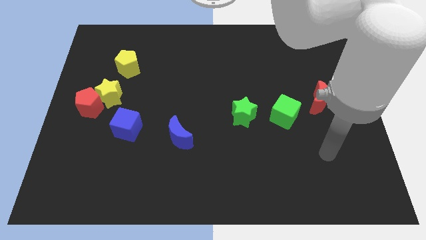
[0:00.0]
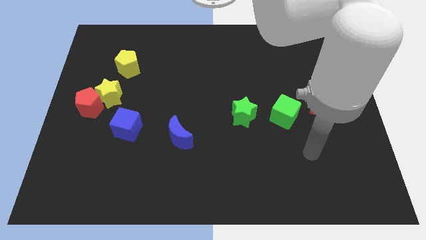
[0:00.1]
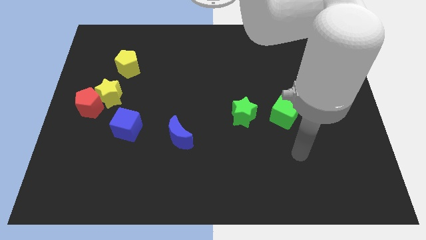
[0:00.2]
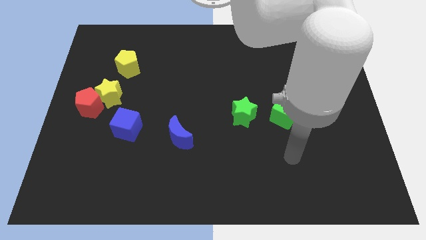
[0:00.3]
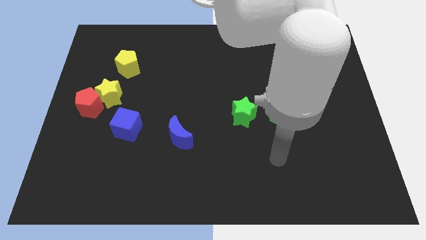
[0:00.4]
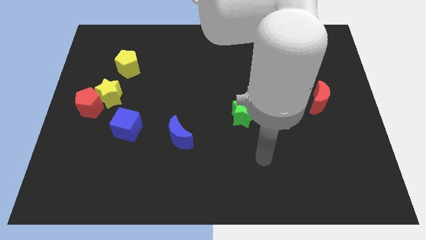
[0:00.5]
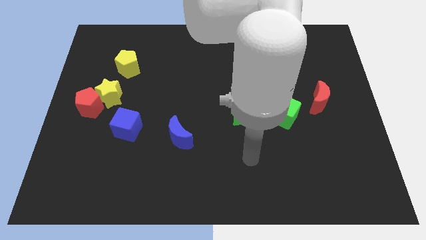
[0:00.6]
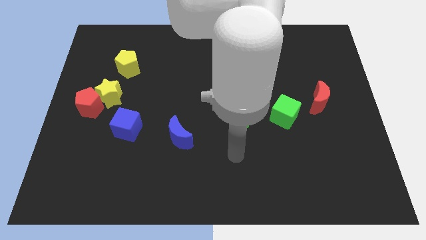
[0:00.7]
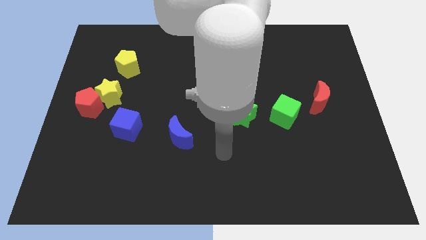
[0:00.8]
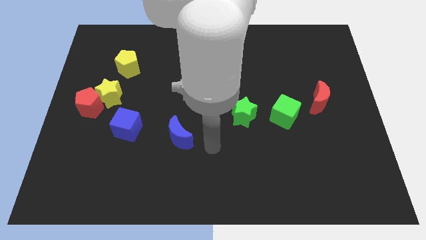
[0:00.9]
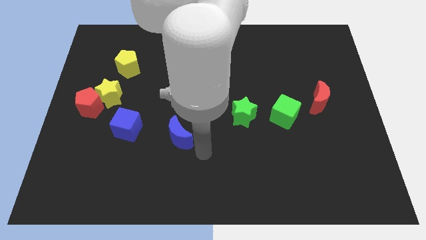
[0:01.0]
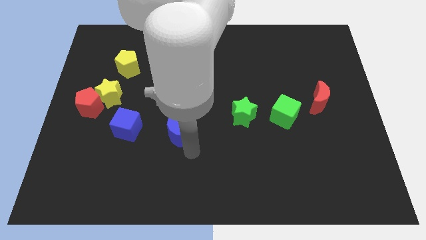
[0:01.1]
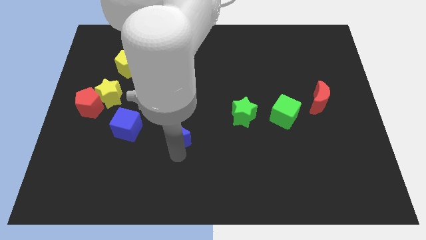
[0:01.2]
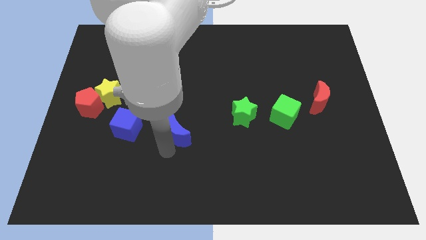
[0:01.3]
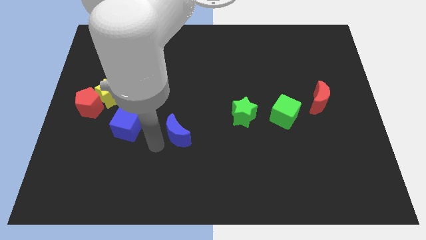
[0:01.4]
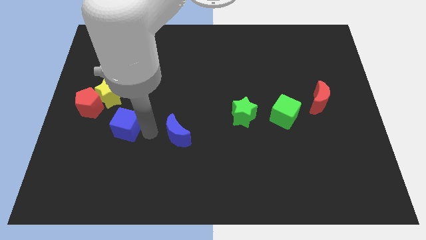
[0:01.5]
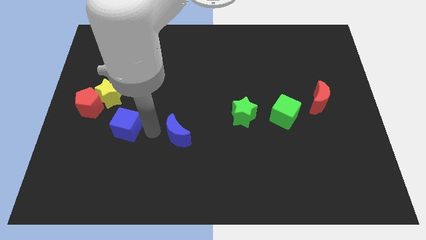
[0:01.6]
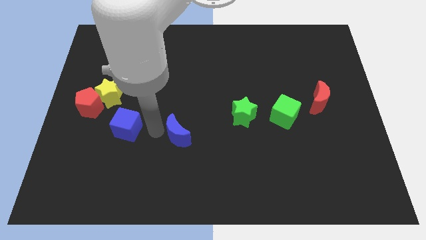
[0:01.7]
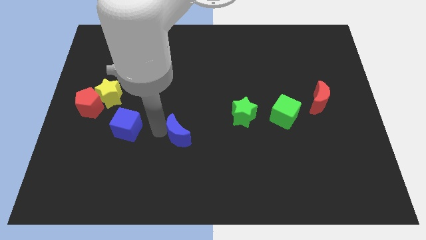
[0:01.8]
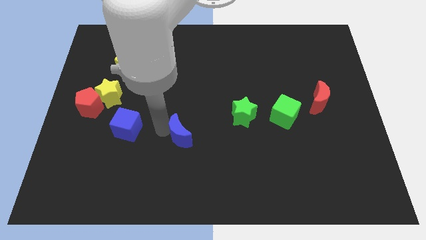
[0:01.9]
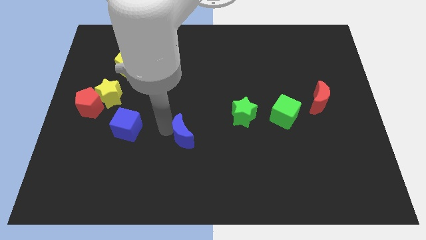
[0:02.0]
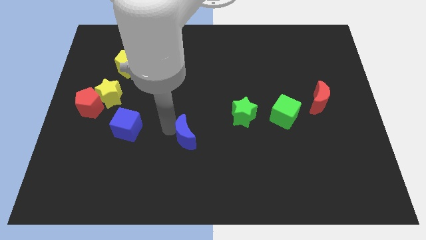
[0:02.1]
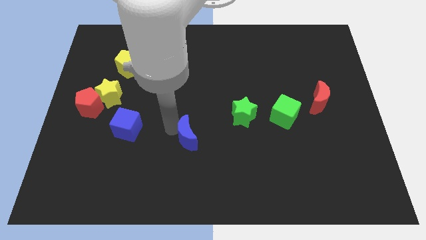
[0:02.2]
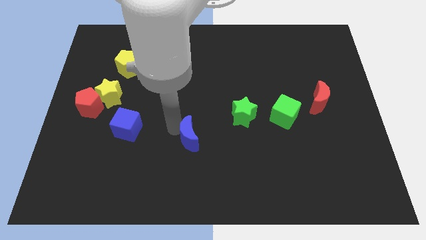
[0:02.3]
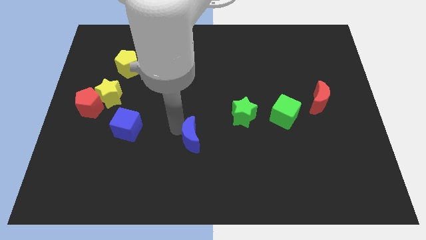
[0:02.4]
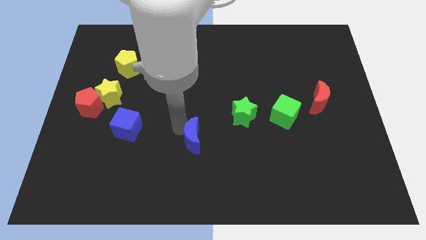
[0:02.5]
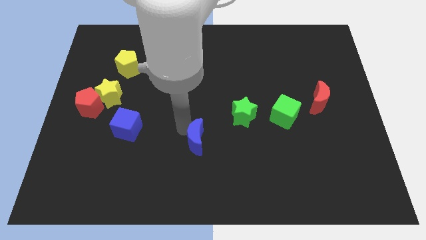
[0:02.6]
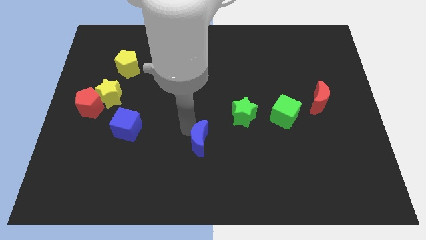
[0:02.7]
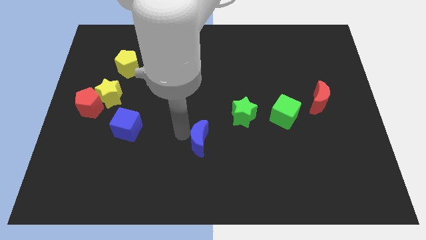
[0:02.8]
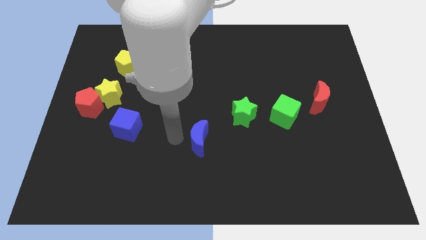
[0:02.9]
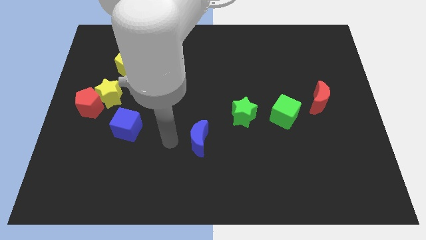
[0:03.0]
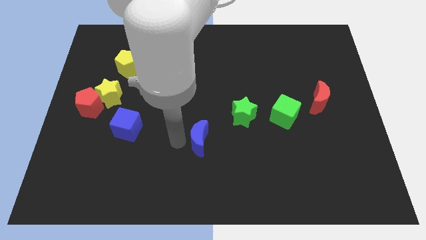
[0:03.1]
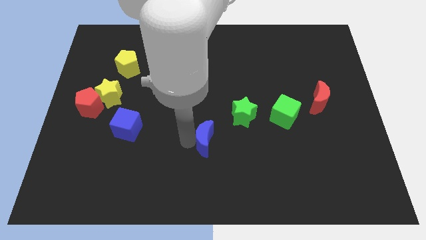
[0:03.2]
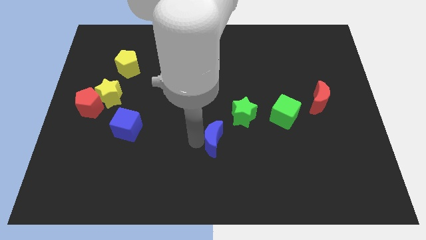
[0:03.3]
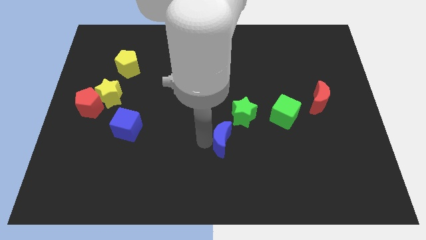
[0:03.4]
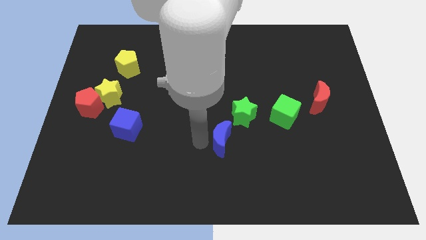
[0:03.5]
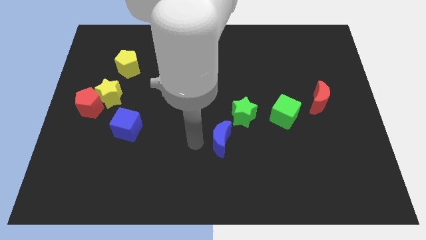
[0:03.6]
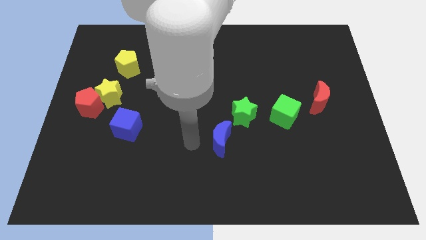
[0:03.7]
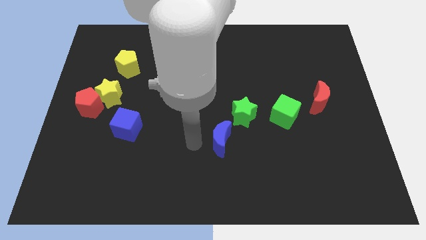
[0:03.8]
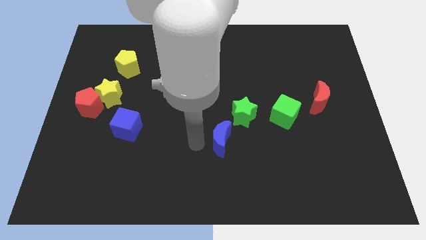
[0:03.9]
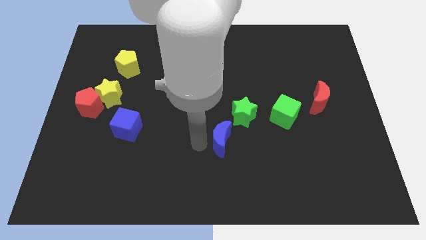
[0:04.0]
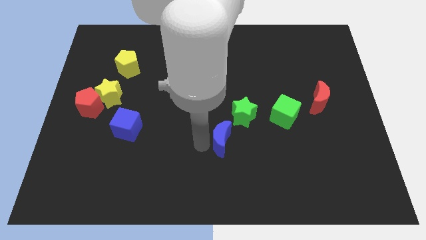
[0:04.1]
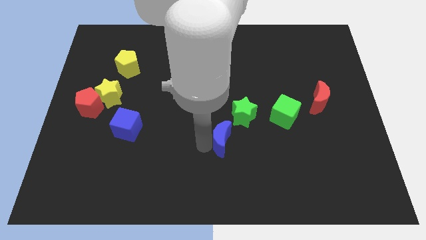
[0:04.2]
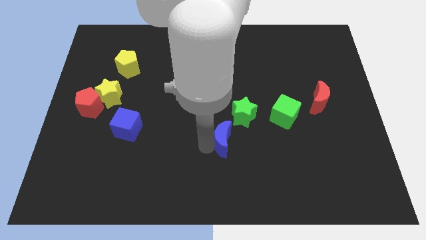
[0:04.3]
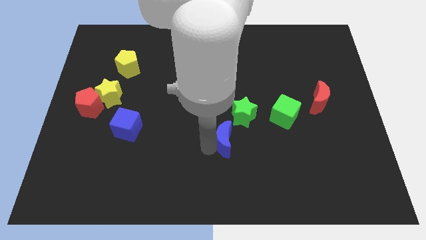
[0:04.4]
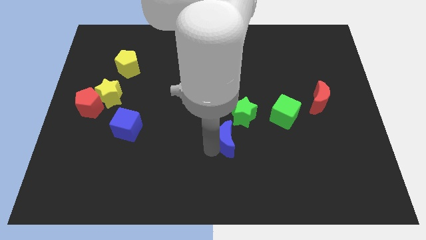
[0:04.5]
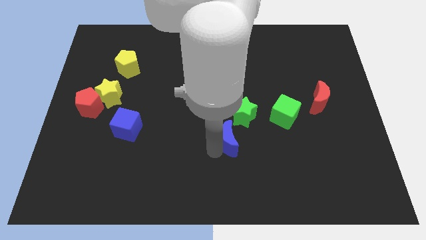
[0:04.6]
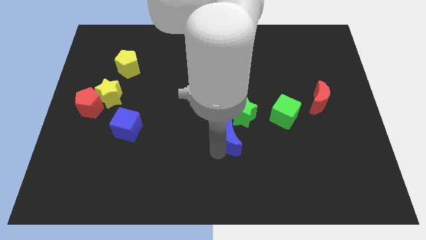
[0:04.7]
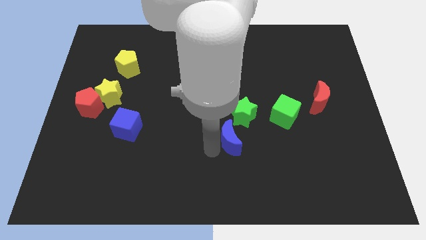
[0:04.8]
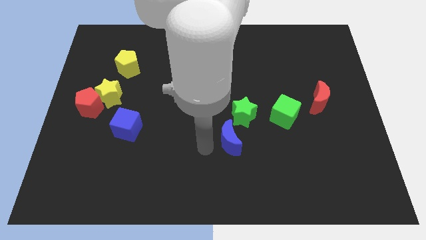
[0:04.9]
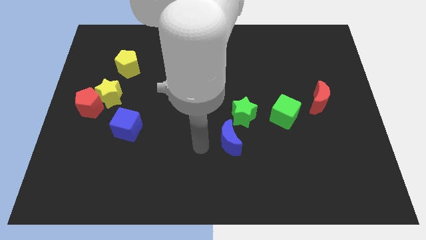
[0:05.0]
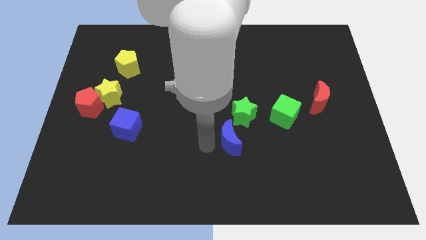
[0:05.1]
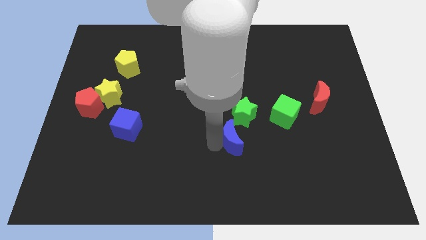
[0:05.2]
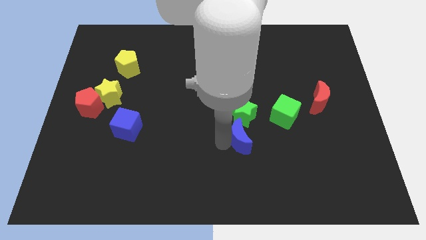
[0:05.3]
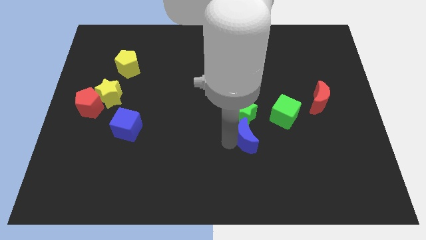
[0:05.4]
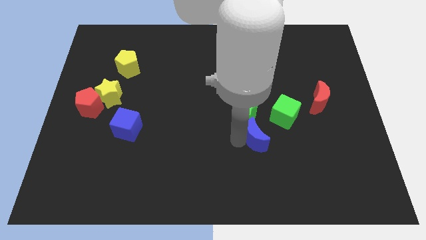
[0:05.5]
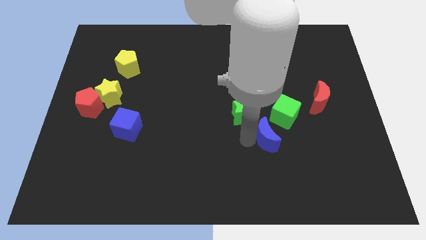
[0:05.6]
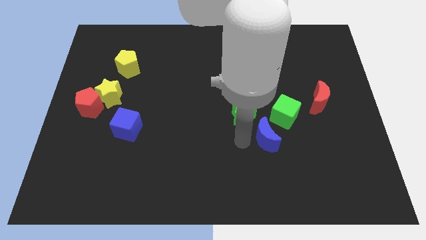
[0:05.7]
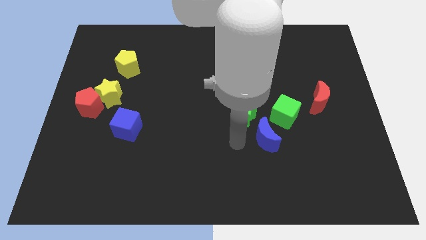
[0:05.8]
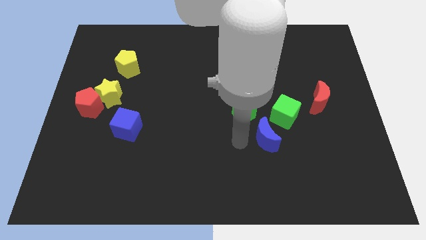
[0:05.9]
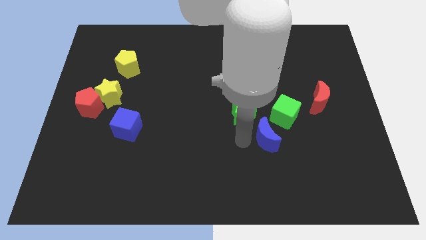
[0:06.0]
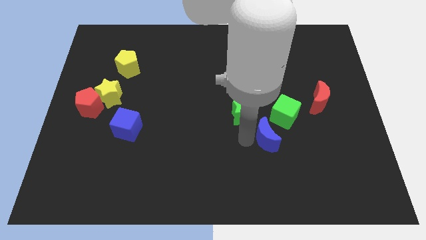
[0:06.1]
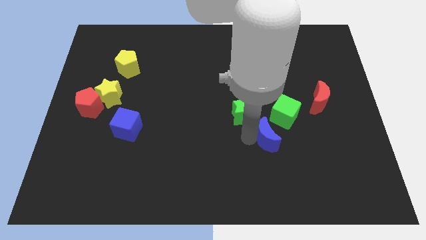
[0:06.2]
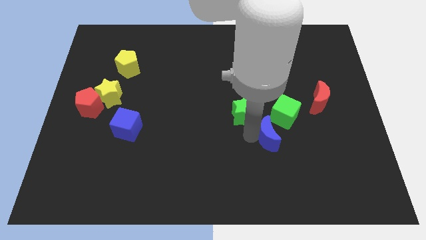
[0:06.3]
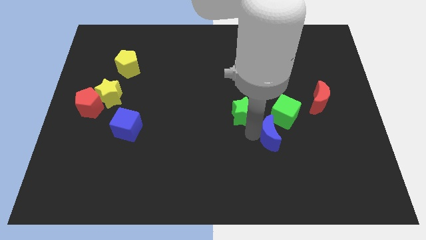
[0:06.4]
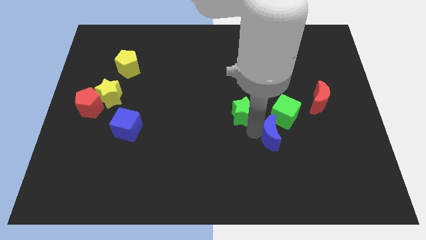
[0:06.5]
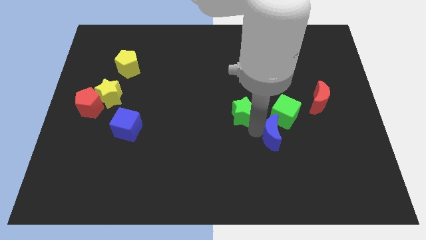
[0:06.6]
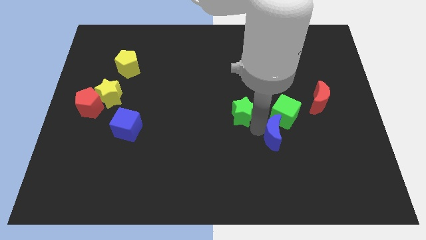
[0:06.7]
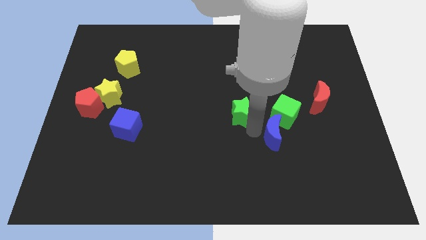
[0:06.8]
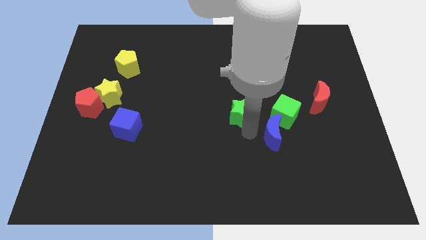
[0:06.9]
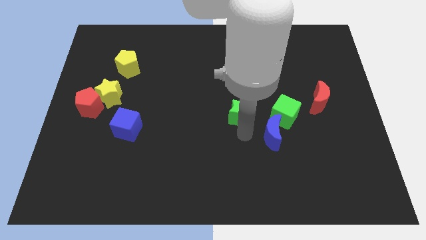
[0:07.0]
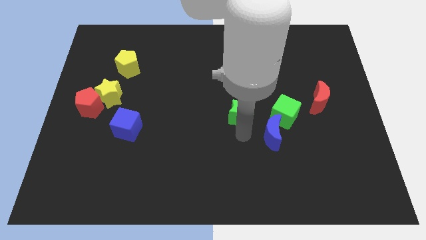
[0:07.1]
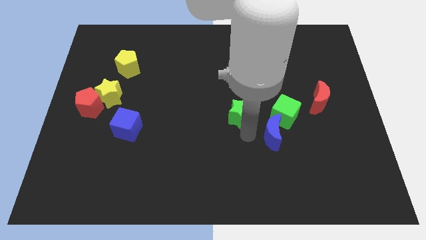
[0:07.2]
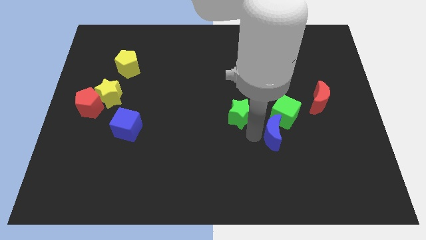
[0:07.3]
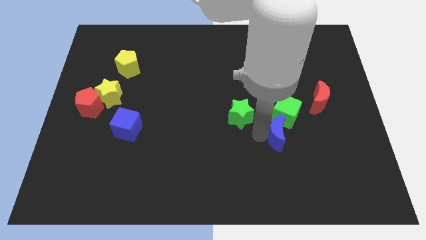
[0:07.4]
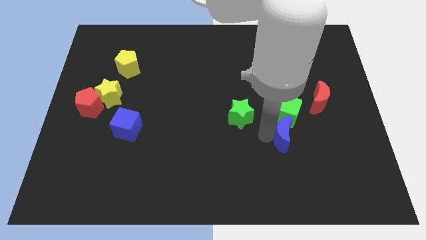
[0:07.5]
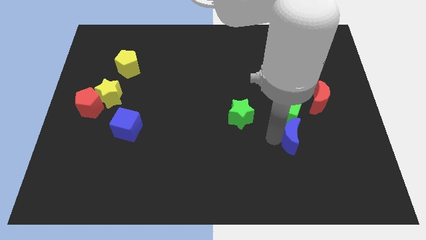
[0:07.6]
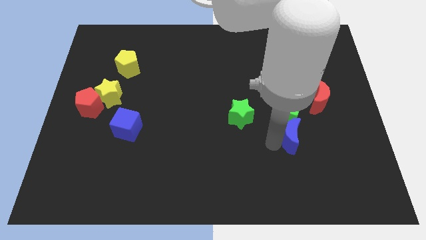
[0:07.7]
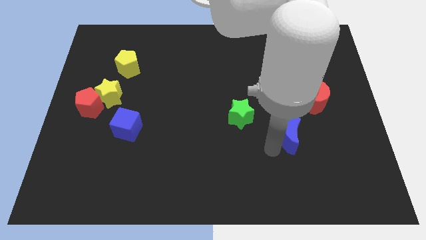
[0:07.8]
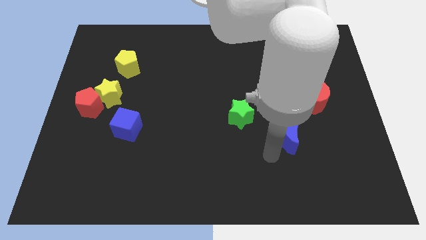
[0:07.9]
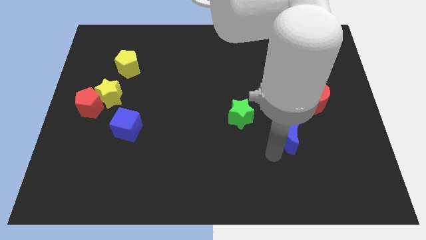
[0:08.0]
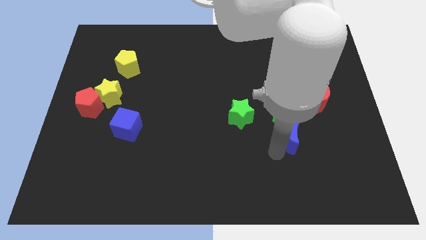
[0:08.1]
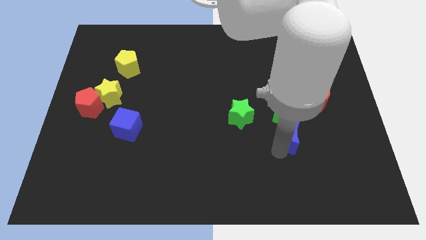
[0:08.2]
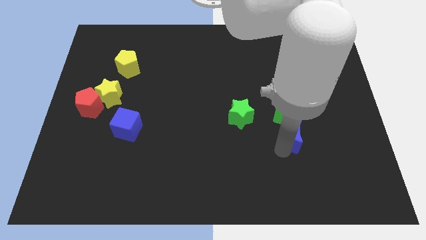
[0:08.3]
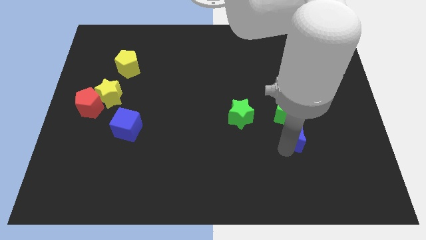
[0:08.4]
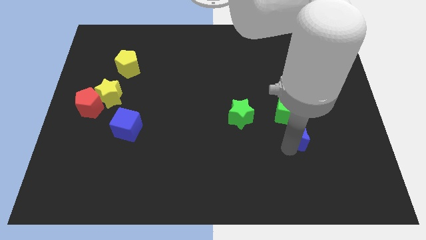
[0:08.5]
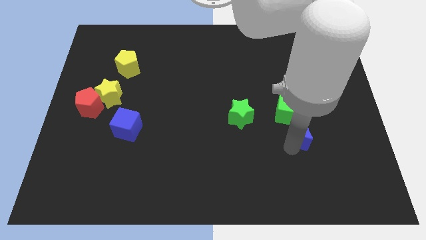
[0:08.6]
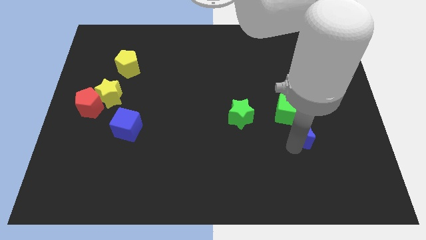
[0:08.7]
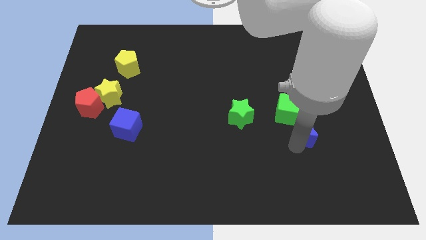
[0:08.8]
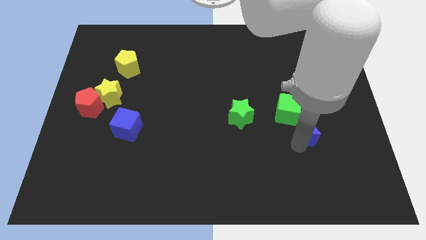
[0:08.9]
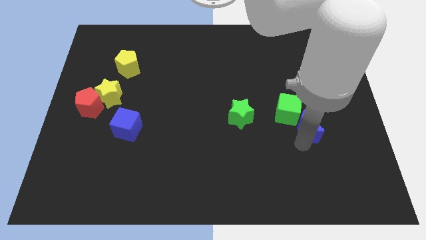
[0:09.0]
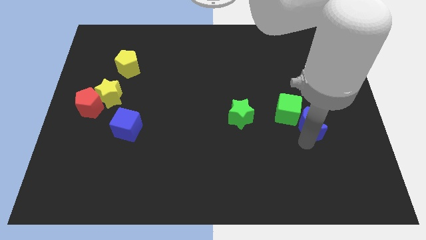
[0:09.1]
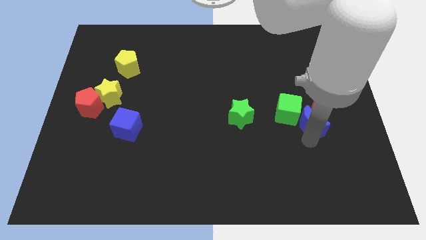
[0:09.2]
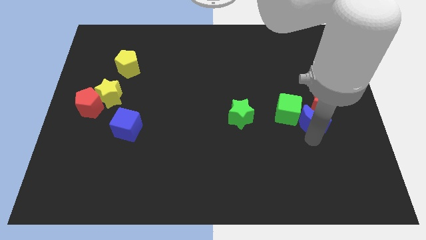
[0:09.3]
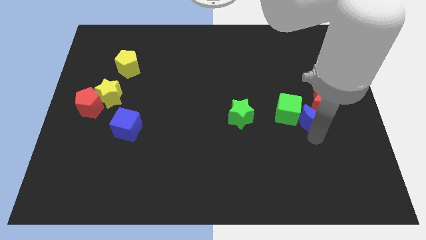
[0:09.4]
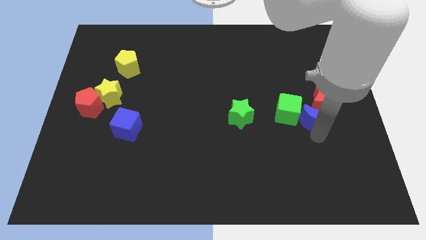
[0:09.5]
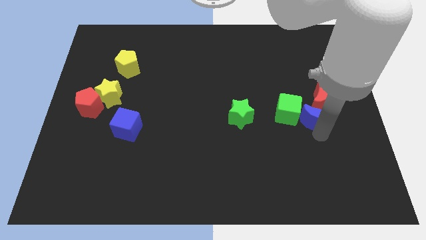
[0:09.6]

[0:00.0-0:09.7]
put the blue moon to the red moon
